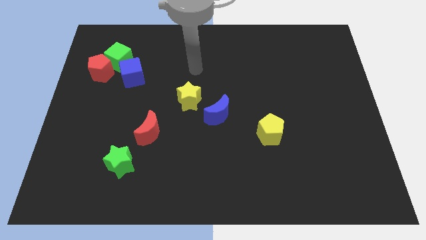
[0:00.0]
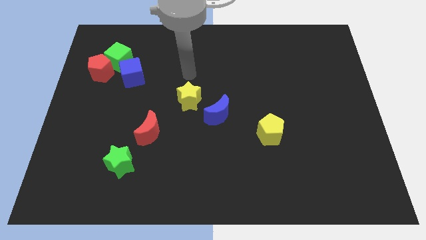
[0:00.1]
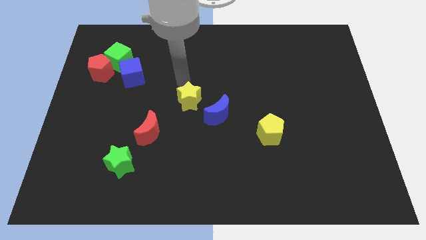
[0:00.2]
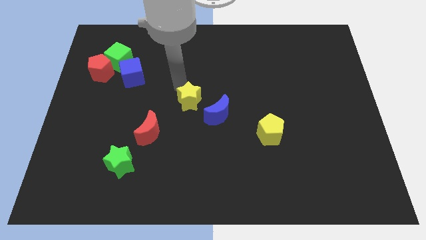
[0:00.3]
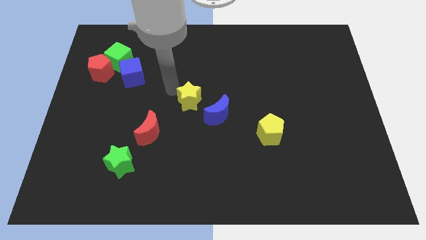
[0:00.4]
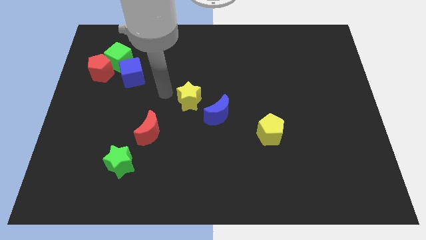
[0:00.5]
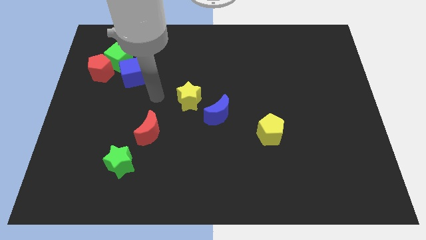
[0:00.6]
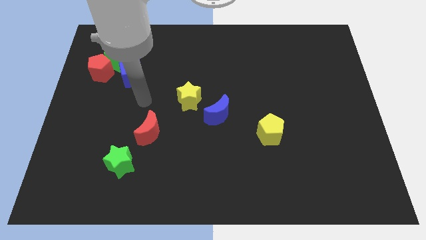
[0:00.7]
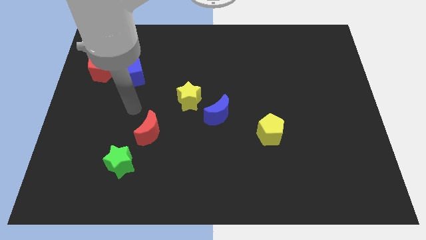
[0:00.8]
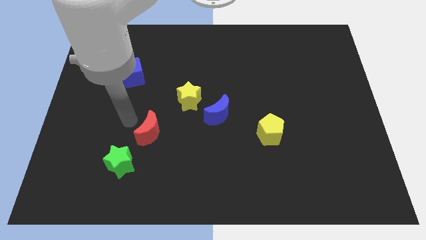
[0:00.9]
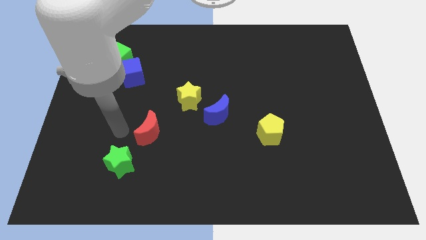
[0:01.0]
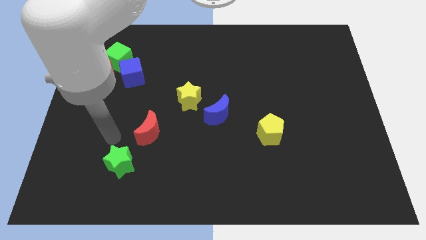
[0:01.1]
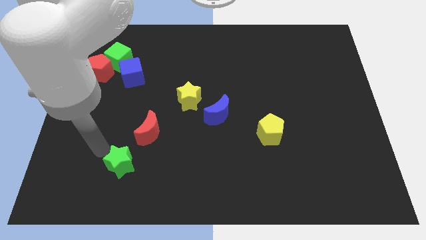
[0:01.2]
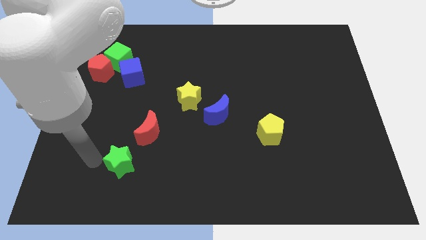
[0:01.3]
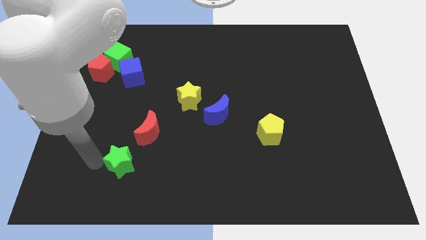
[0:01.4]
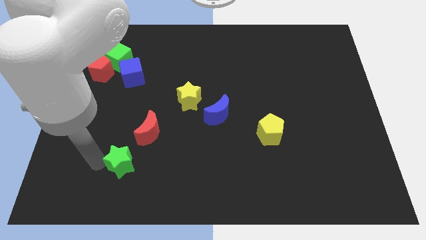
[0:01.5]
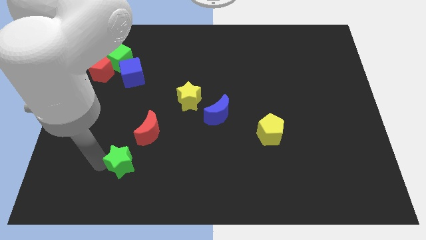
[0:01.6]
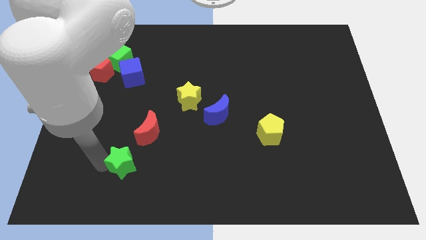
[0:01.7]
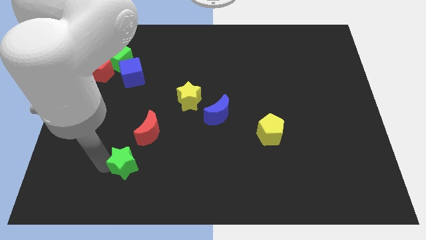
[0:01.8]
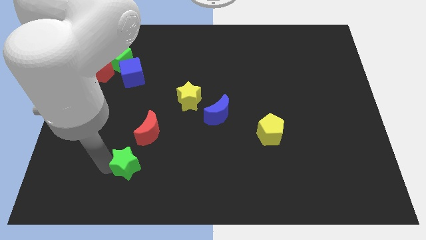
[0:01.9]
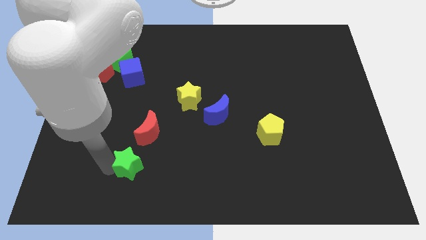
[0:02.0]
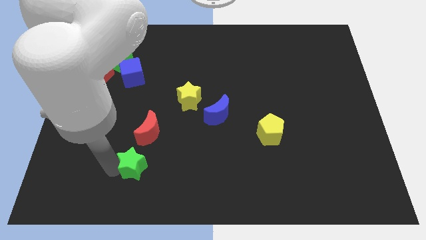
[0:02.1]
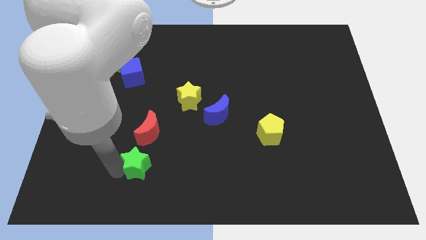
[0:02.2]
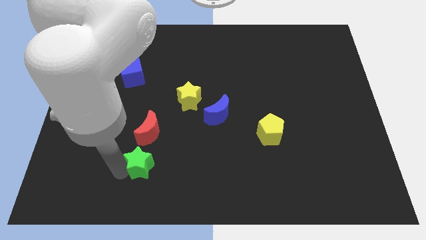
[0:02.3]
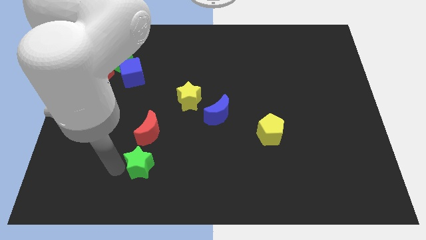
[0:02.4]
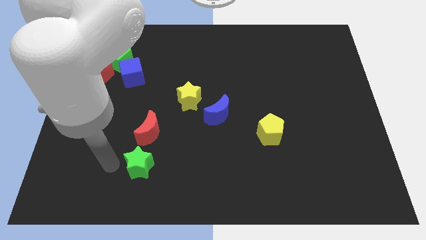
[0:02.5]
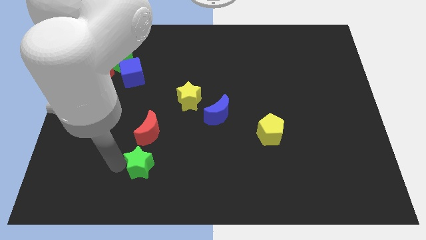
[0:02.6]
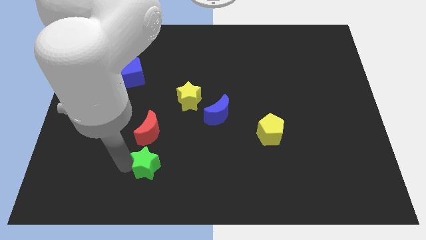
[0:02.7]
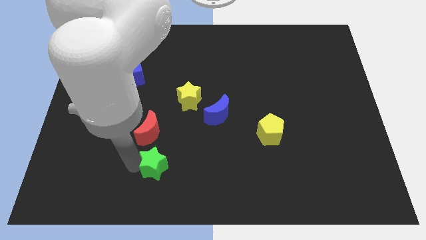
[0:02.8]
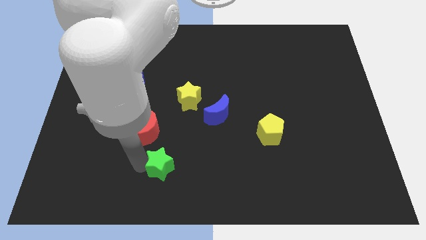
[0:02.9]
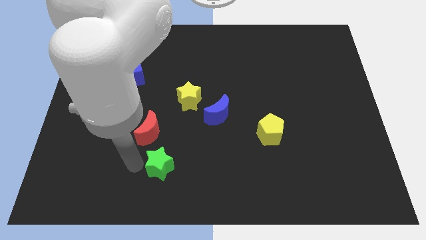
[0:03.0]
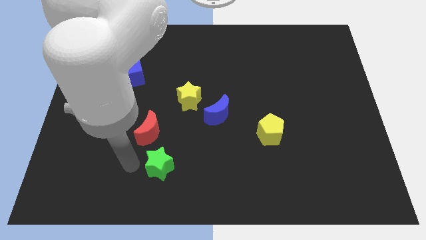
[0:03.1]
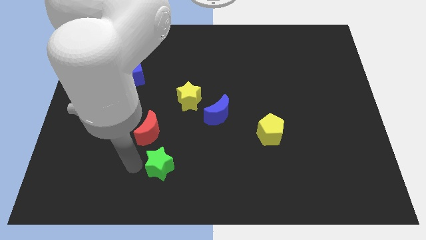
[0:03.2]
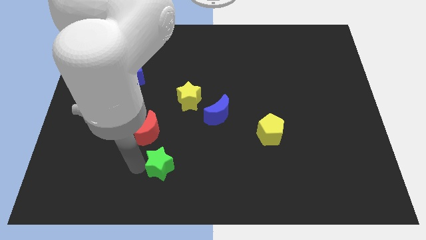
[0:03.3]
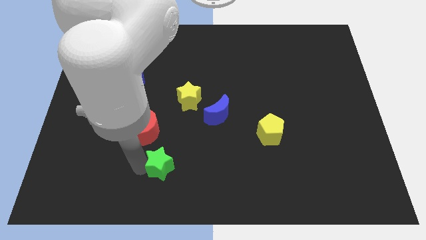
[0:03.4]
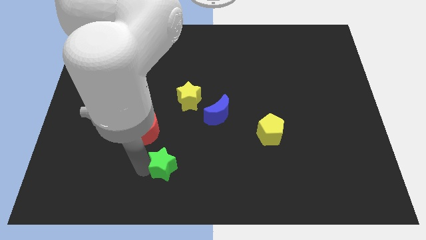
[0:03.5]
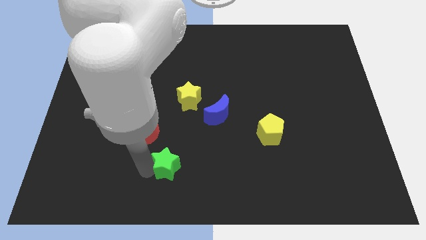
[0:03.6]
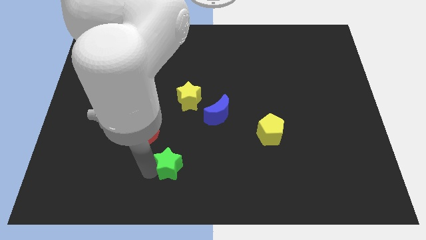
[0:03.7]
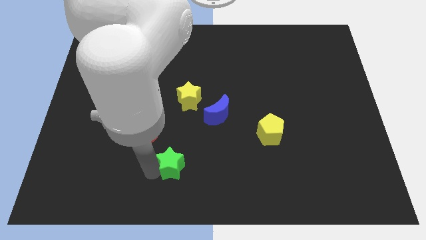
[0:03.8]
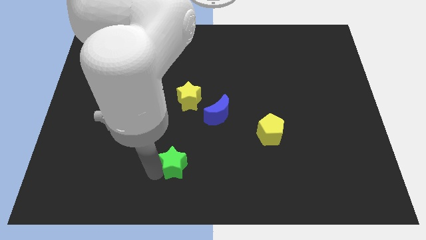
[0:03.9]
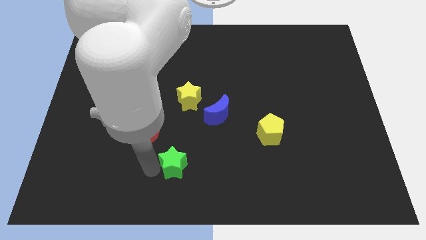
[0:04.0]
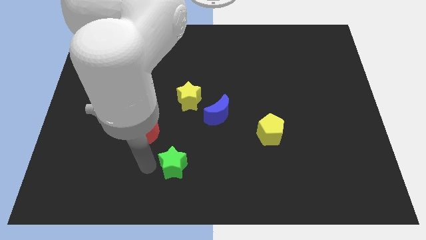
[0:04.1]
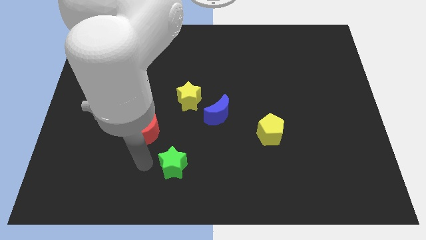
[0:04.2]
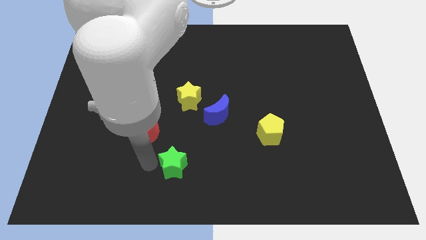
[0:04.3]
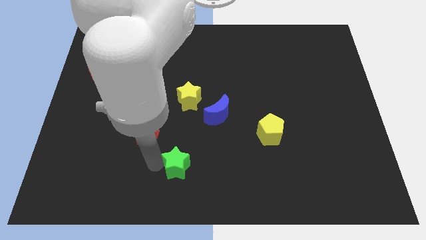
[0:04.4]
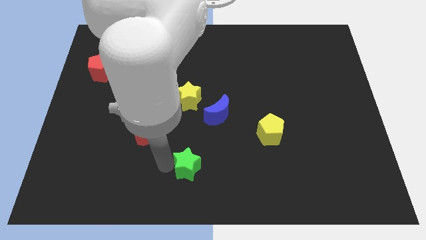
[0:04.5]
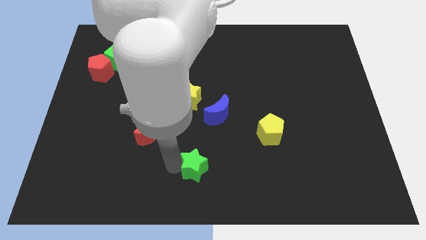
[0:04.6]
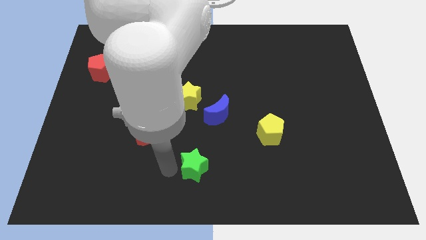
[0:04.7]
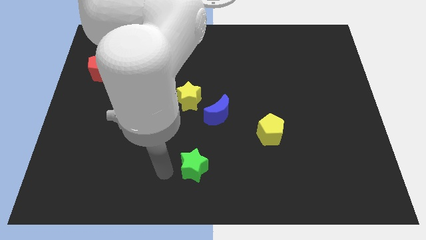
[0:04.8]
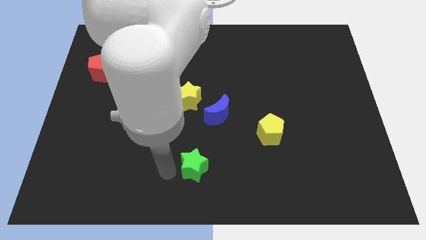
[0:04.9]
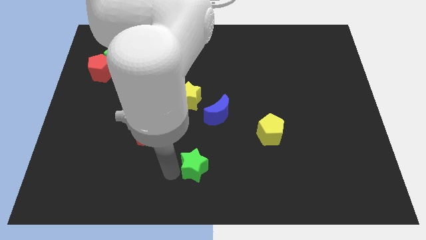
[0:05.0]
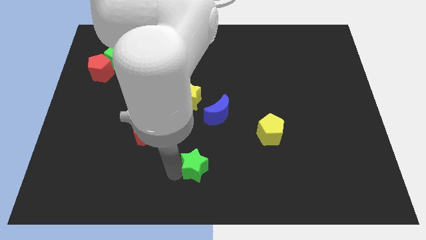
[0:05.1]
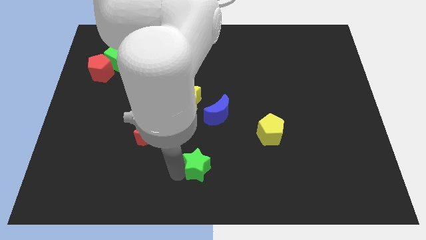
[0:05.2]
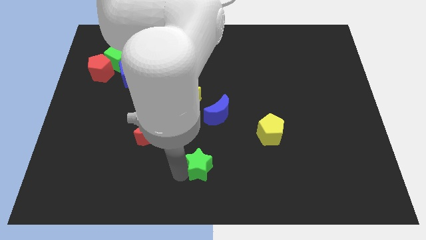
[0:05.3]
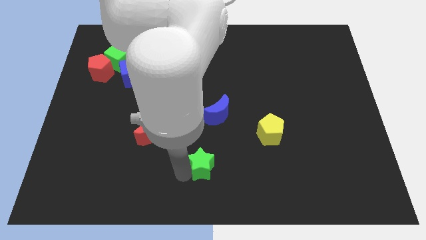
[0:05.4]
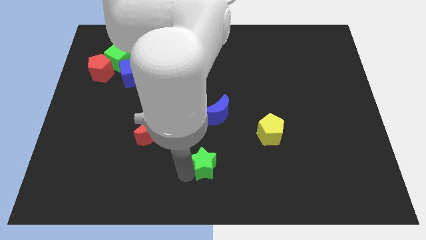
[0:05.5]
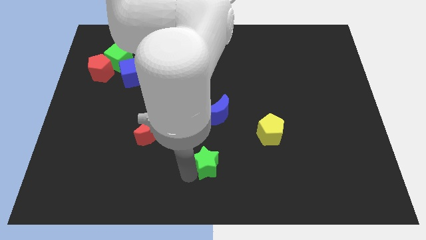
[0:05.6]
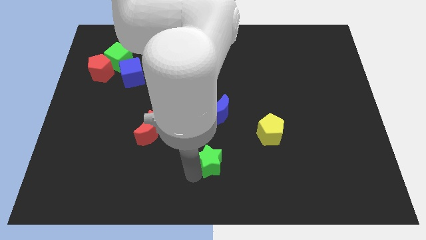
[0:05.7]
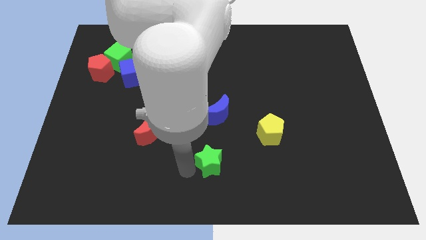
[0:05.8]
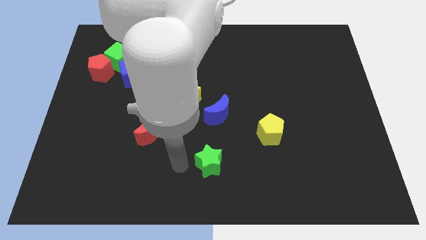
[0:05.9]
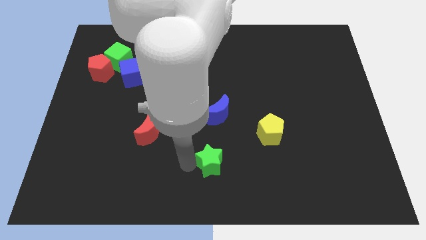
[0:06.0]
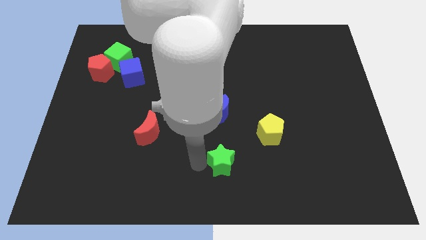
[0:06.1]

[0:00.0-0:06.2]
slide the green star to the right

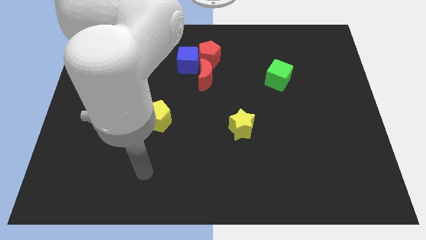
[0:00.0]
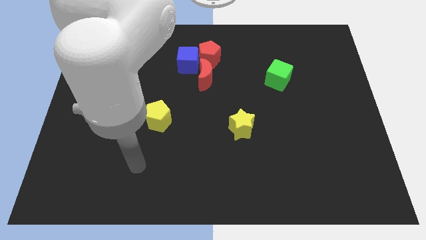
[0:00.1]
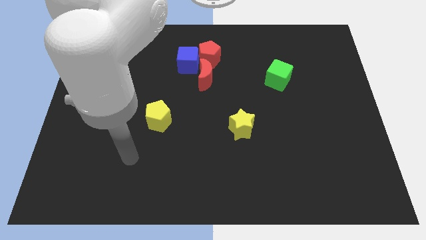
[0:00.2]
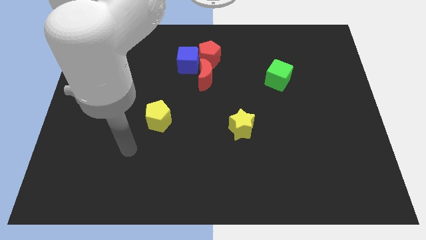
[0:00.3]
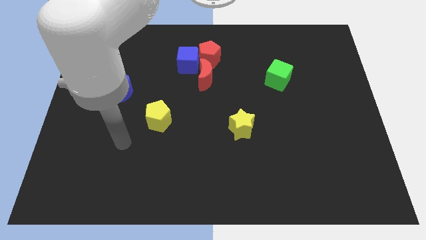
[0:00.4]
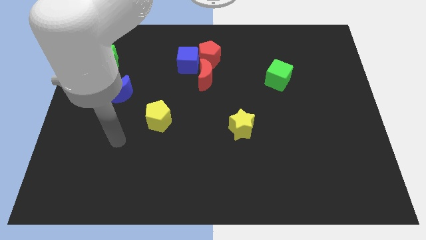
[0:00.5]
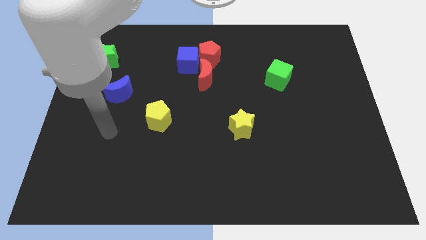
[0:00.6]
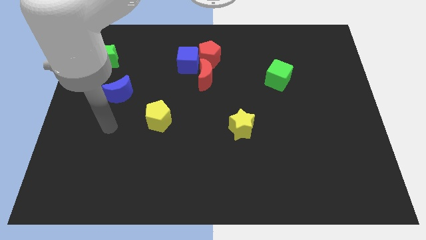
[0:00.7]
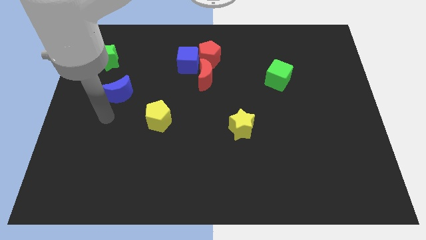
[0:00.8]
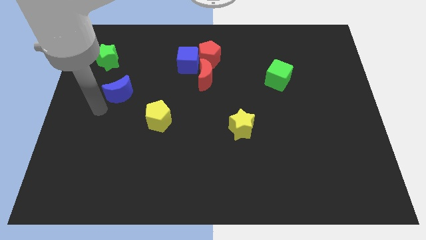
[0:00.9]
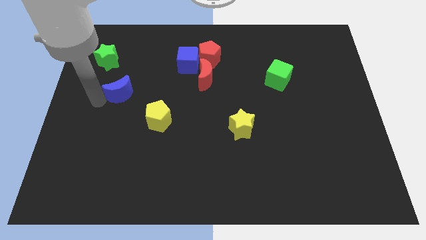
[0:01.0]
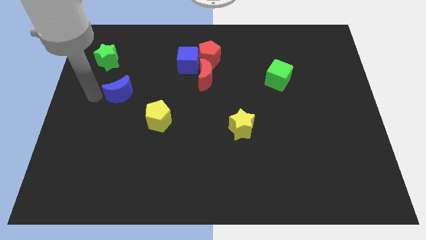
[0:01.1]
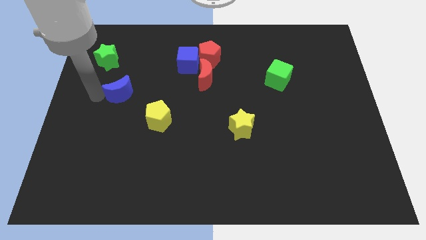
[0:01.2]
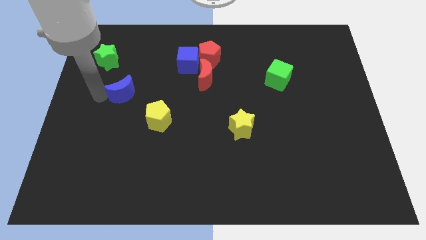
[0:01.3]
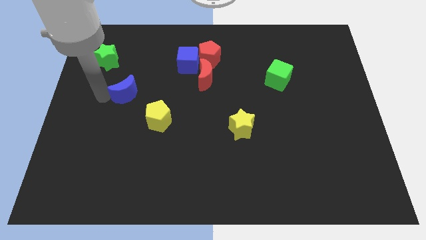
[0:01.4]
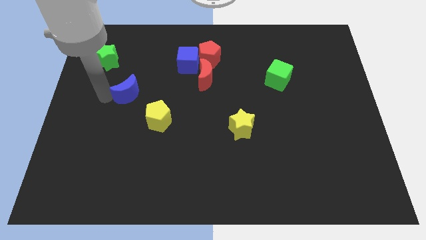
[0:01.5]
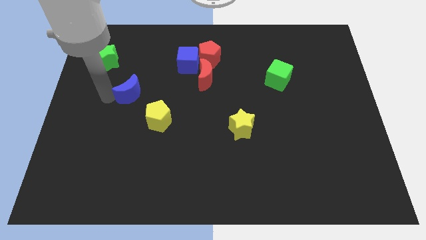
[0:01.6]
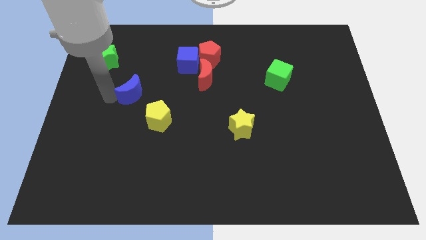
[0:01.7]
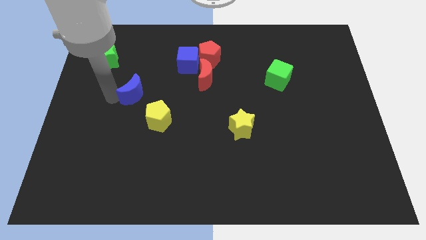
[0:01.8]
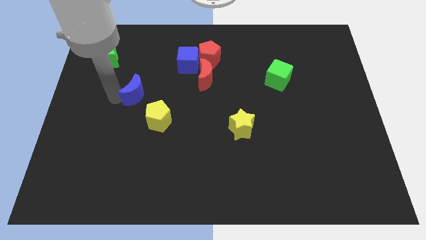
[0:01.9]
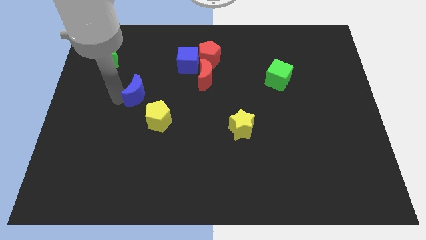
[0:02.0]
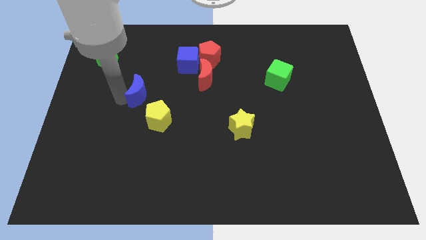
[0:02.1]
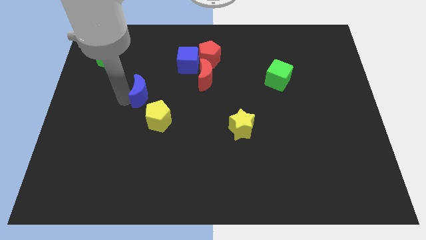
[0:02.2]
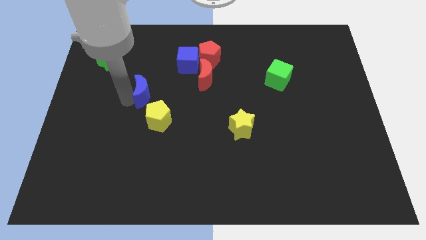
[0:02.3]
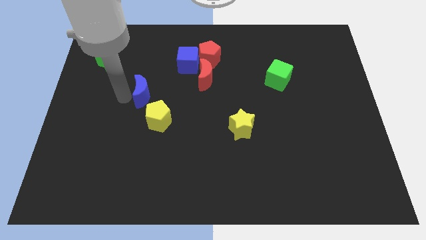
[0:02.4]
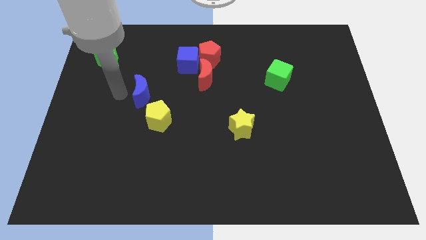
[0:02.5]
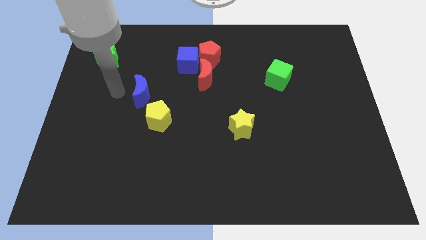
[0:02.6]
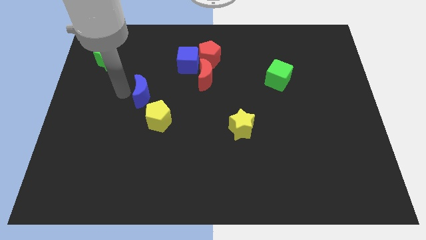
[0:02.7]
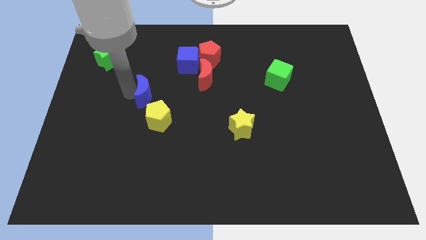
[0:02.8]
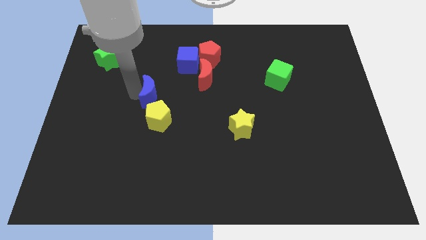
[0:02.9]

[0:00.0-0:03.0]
push the blue moon a little right
